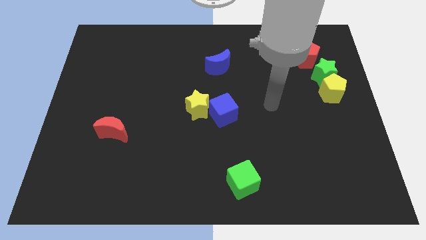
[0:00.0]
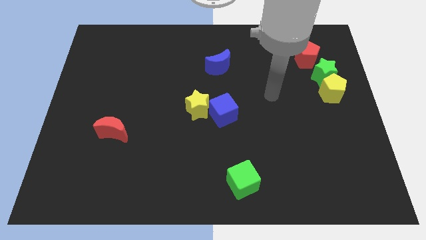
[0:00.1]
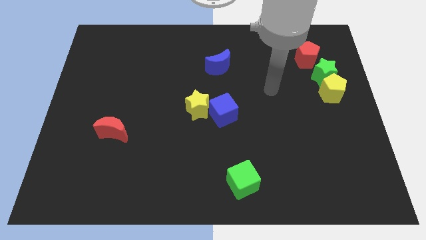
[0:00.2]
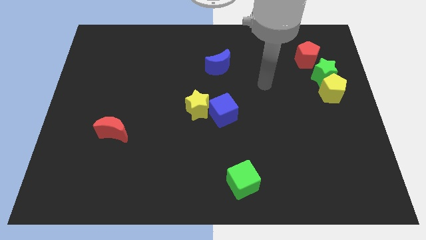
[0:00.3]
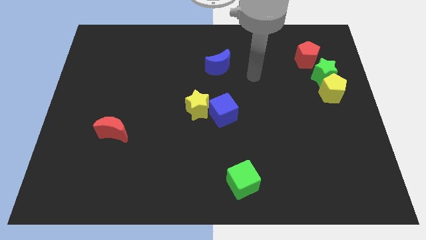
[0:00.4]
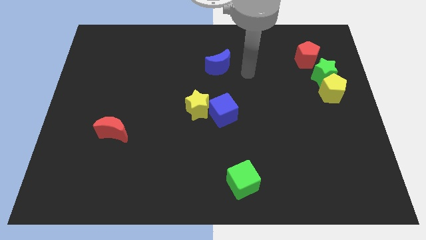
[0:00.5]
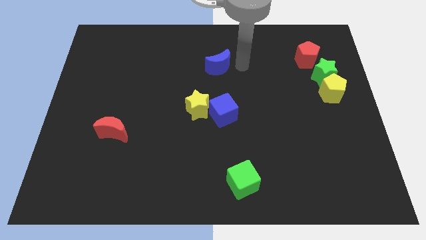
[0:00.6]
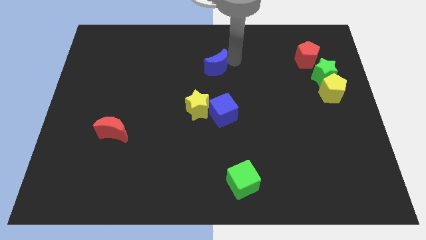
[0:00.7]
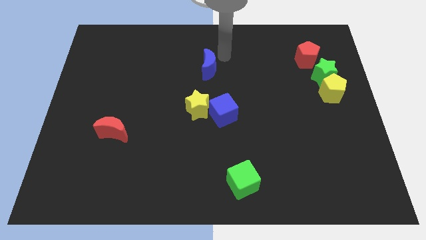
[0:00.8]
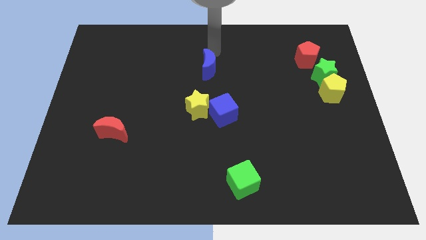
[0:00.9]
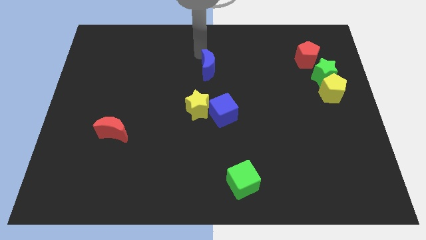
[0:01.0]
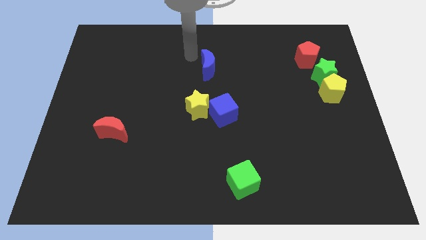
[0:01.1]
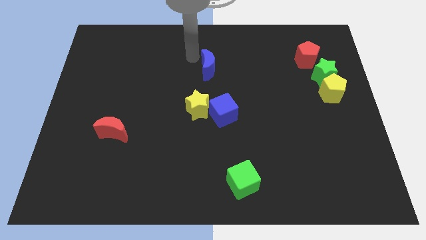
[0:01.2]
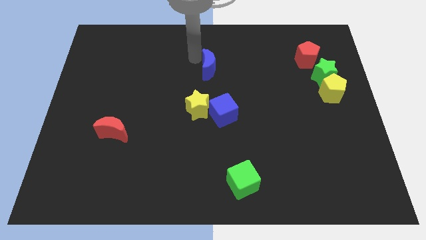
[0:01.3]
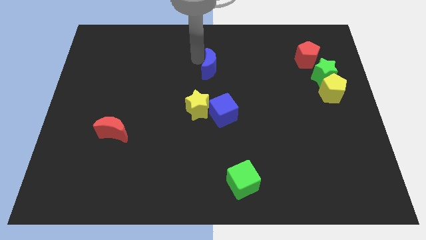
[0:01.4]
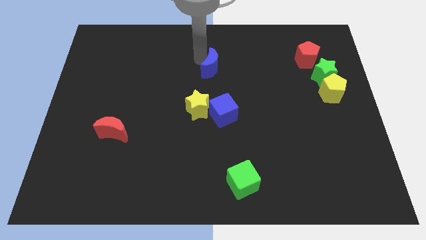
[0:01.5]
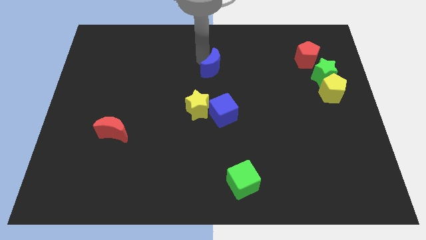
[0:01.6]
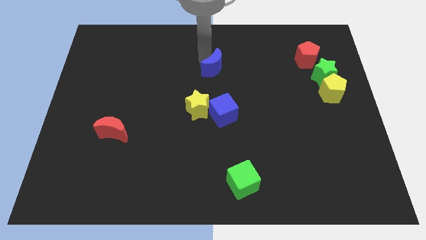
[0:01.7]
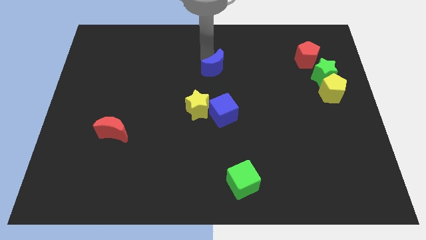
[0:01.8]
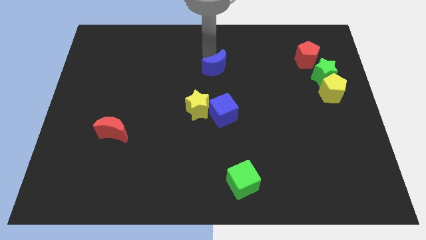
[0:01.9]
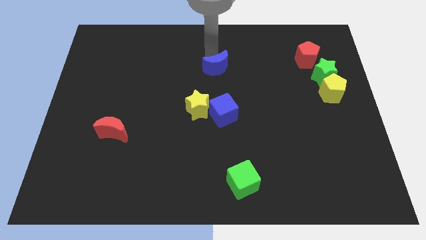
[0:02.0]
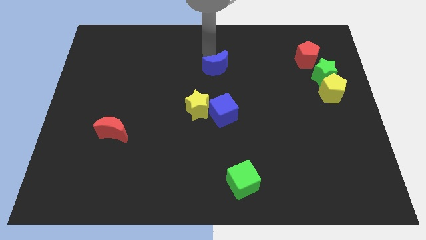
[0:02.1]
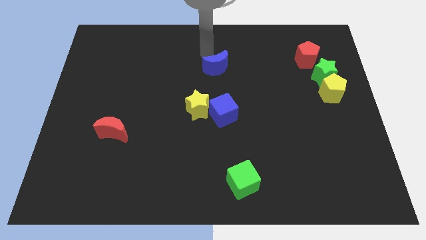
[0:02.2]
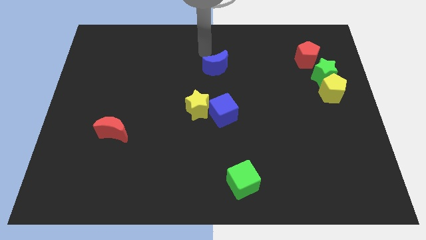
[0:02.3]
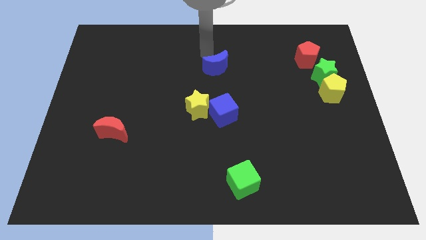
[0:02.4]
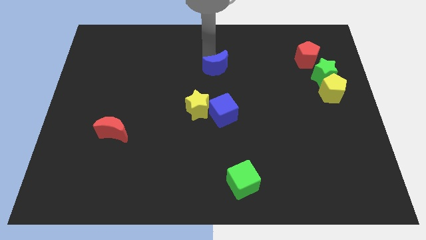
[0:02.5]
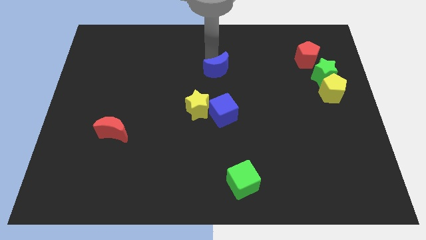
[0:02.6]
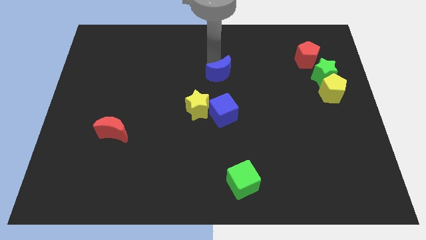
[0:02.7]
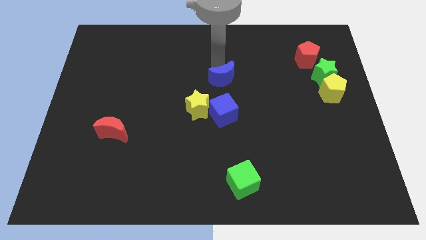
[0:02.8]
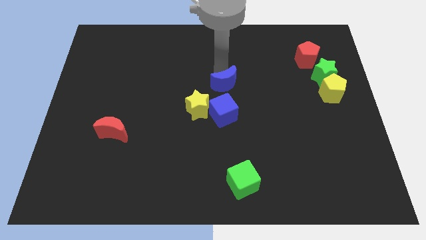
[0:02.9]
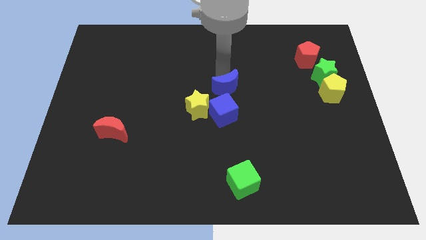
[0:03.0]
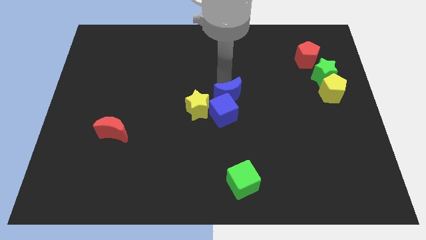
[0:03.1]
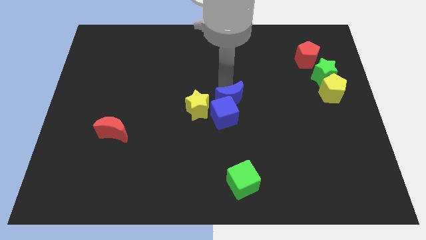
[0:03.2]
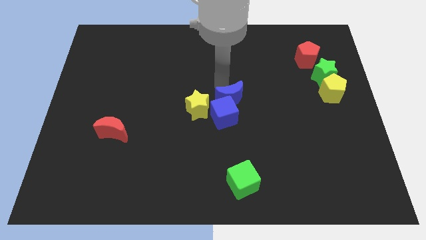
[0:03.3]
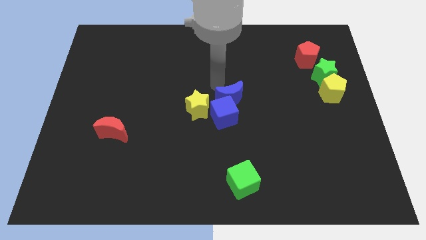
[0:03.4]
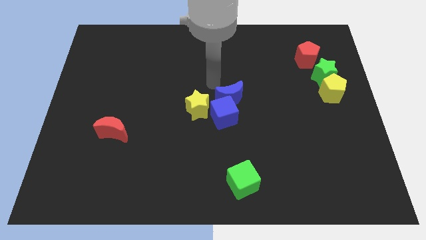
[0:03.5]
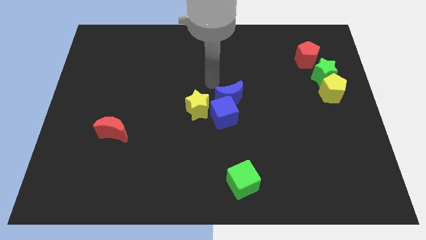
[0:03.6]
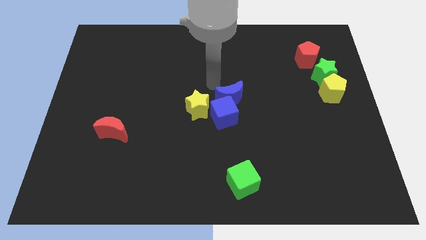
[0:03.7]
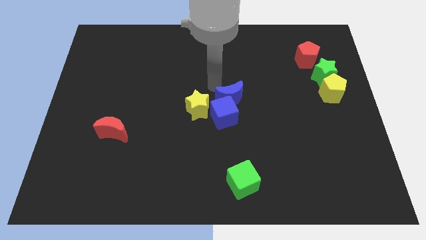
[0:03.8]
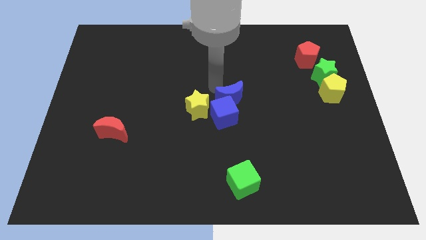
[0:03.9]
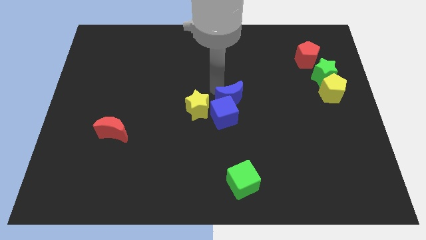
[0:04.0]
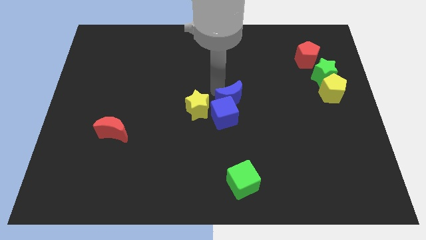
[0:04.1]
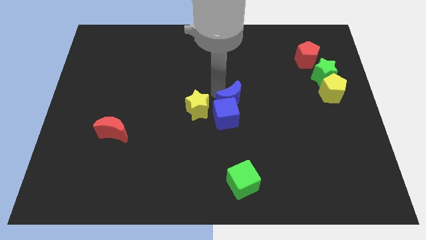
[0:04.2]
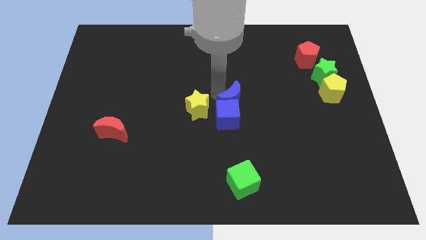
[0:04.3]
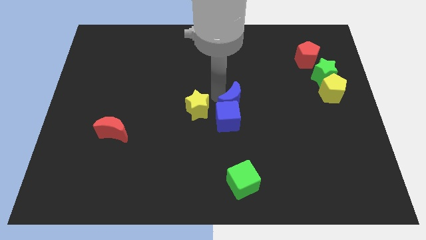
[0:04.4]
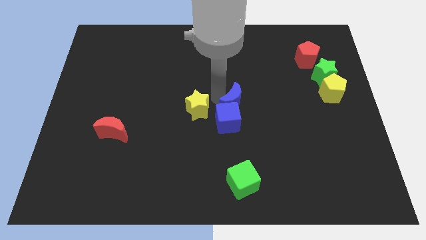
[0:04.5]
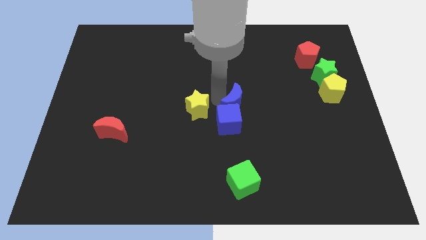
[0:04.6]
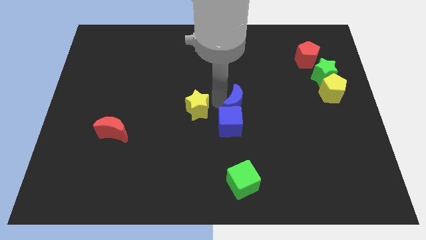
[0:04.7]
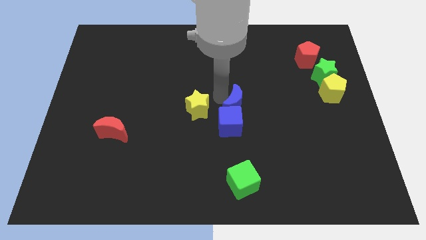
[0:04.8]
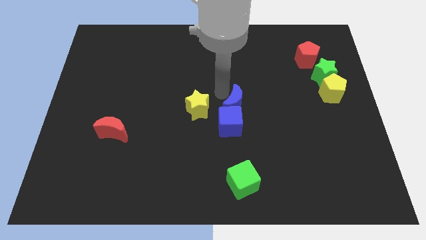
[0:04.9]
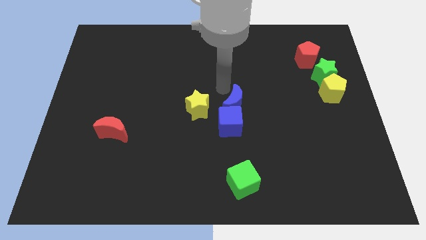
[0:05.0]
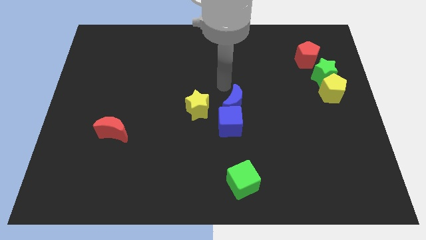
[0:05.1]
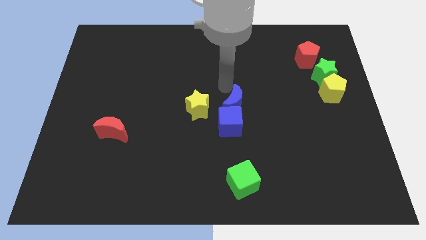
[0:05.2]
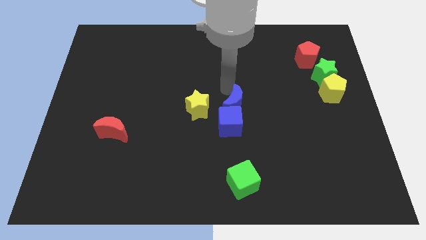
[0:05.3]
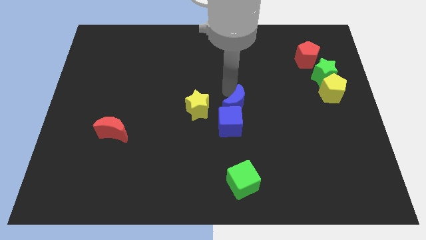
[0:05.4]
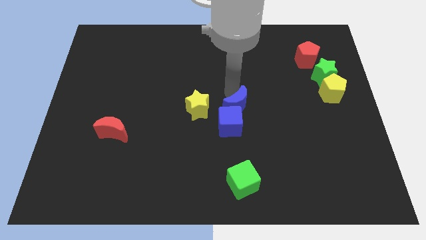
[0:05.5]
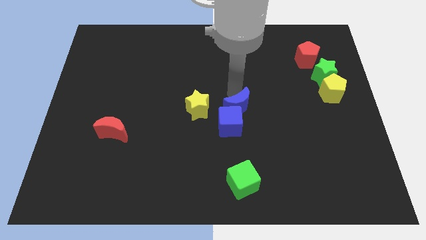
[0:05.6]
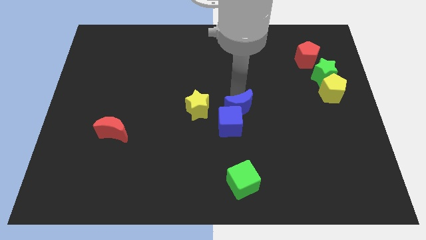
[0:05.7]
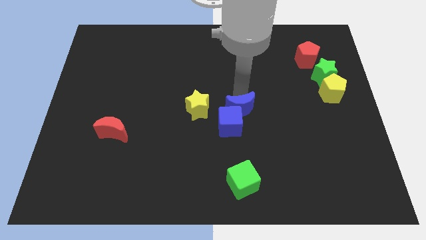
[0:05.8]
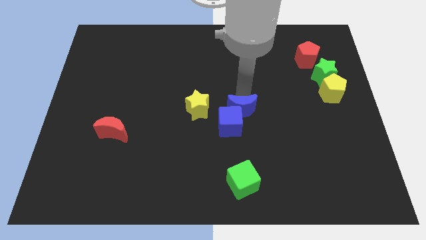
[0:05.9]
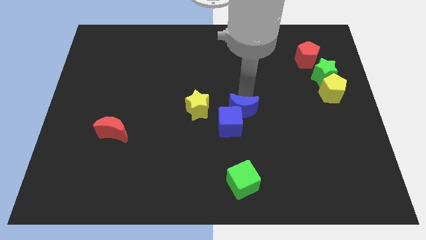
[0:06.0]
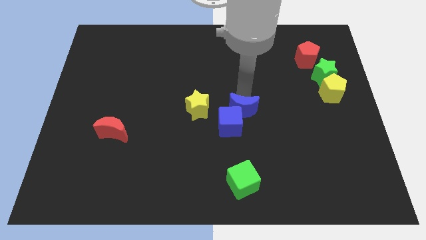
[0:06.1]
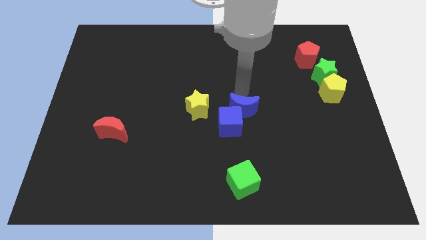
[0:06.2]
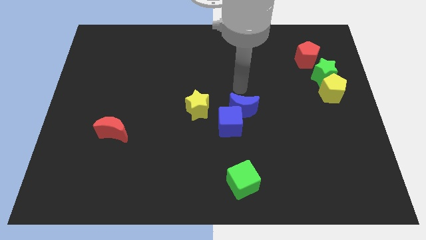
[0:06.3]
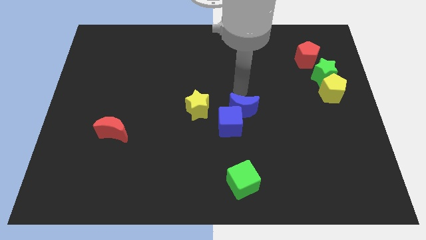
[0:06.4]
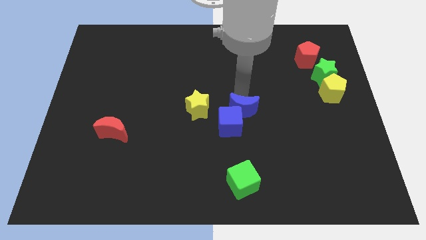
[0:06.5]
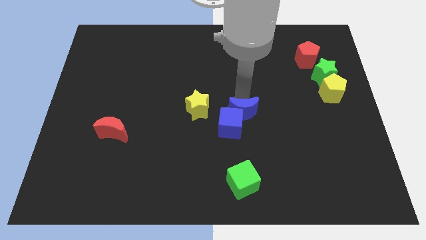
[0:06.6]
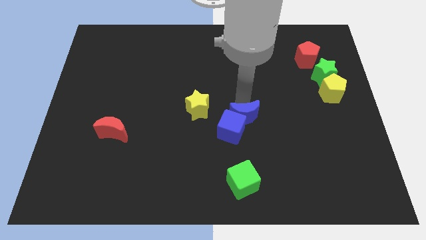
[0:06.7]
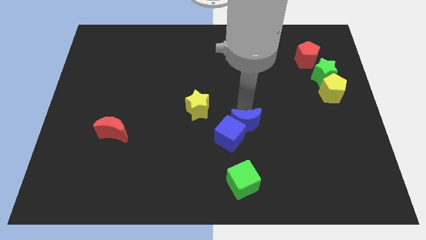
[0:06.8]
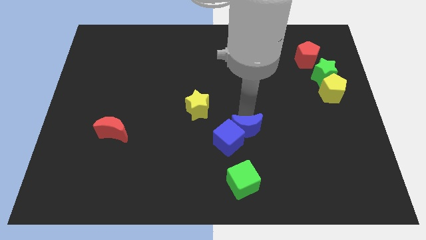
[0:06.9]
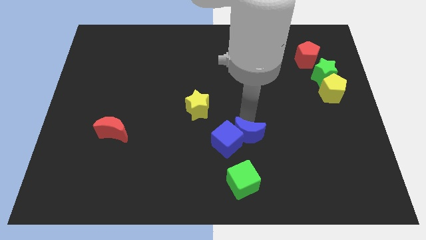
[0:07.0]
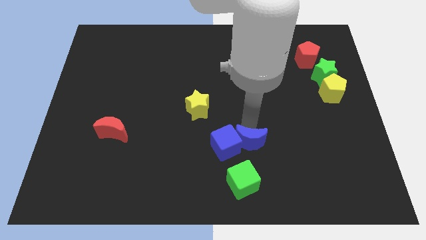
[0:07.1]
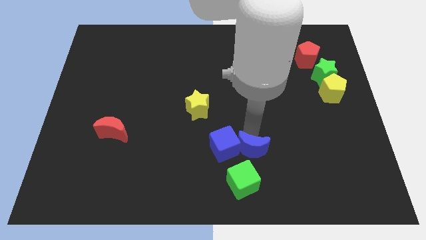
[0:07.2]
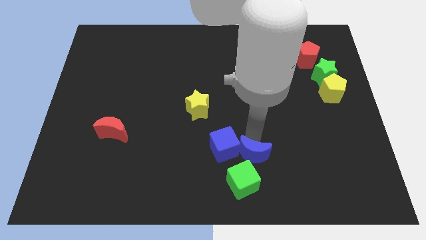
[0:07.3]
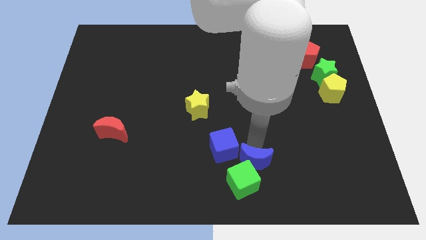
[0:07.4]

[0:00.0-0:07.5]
push the blue moon to the green cube

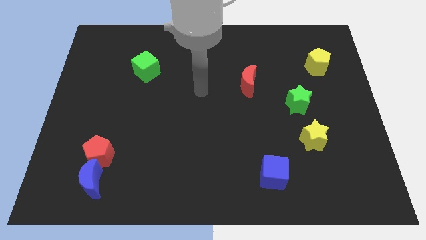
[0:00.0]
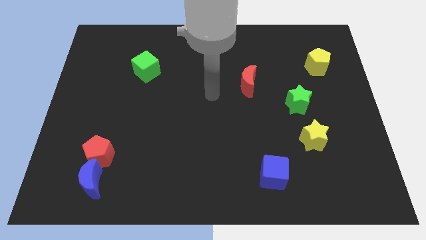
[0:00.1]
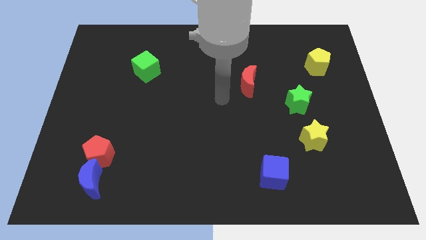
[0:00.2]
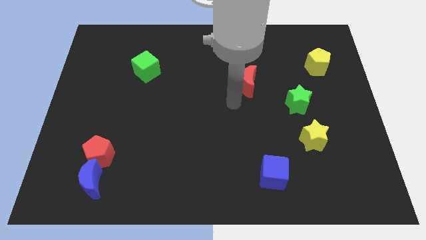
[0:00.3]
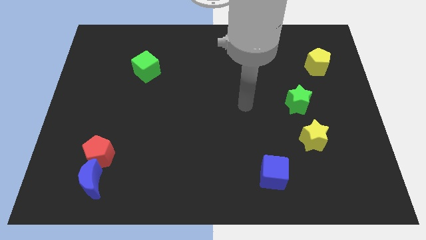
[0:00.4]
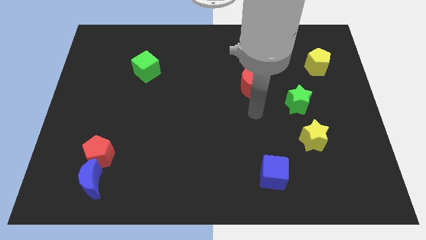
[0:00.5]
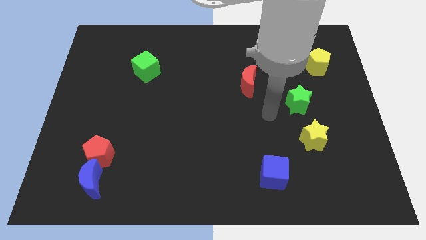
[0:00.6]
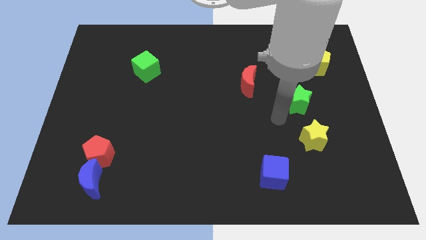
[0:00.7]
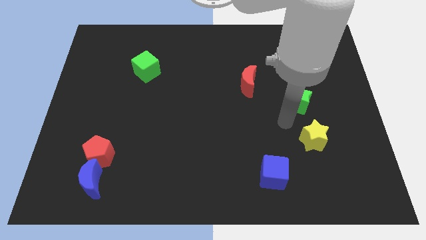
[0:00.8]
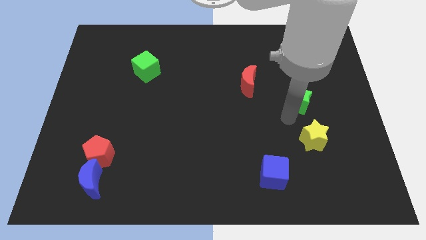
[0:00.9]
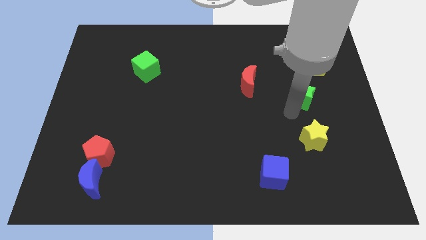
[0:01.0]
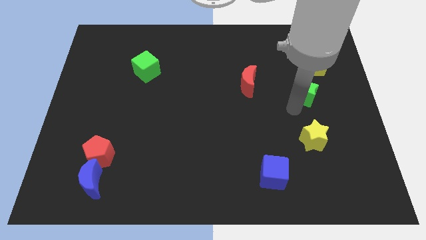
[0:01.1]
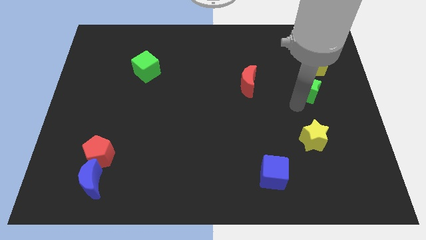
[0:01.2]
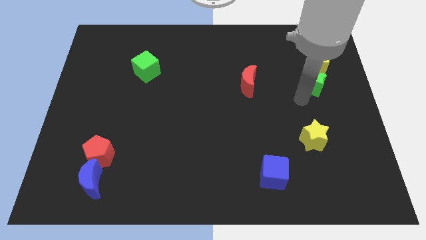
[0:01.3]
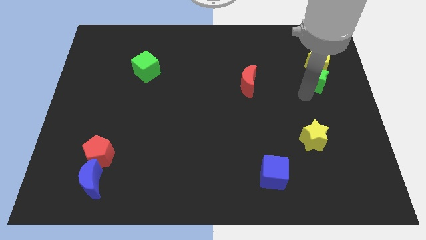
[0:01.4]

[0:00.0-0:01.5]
put the green star to the yellow pentagon
